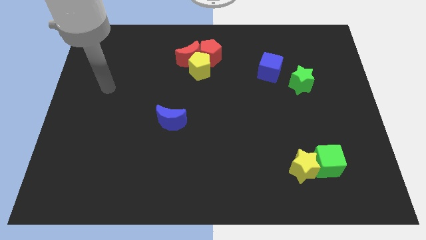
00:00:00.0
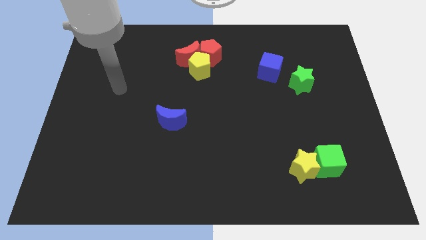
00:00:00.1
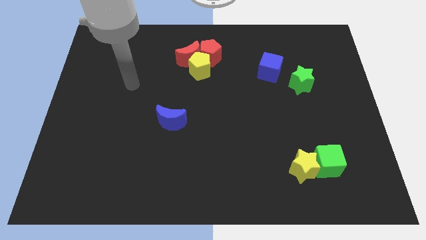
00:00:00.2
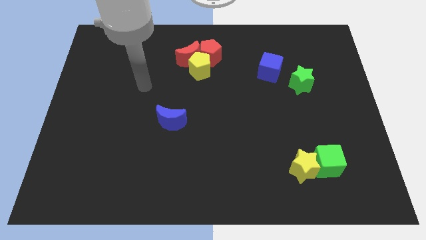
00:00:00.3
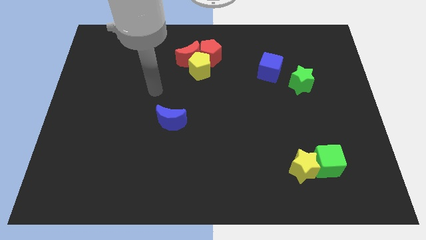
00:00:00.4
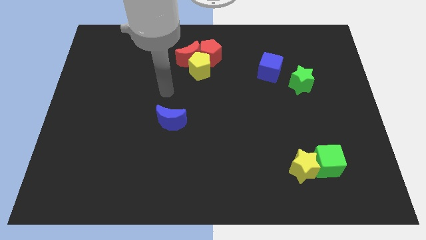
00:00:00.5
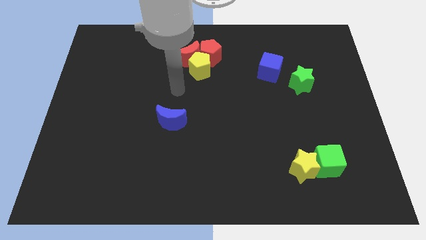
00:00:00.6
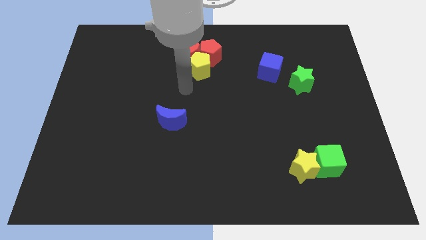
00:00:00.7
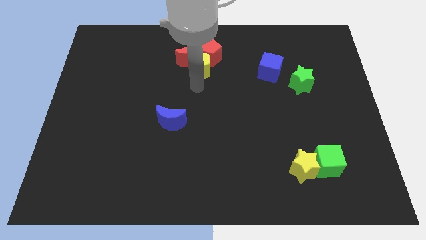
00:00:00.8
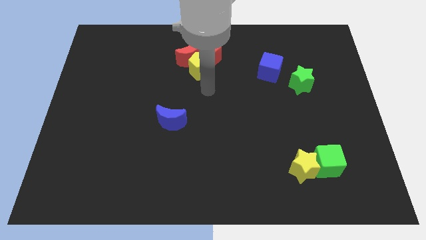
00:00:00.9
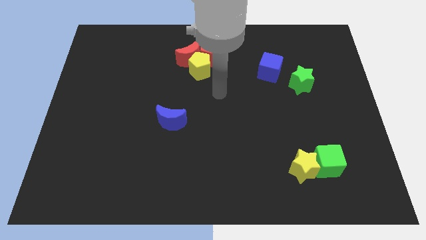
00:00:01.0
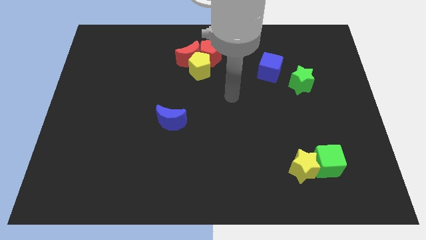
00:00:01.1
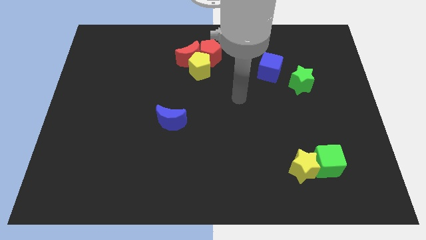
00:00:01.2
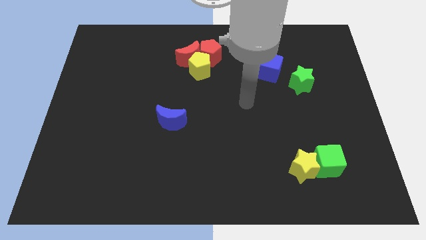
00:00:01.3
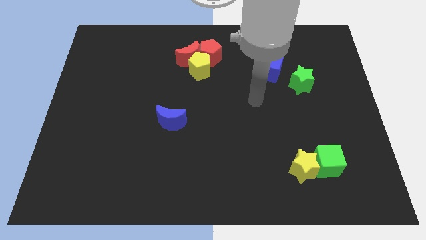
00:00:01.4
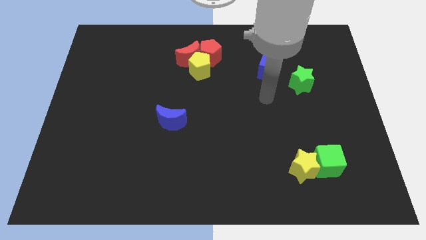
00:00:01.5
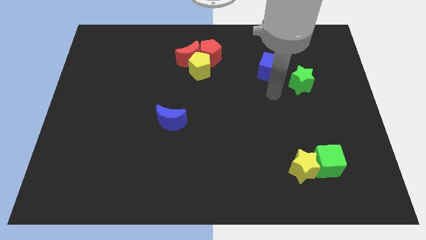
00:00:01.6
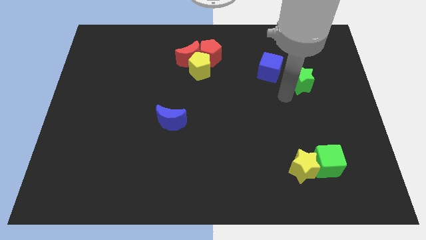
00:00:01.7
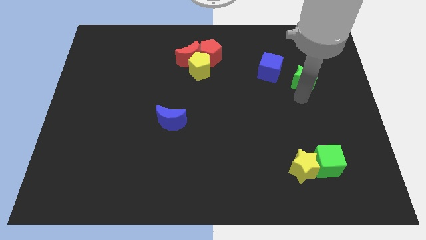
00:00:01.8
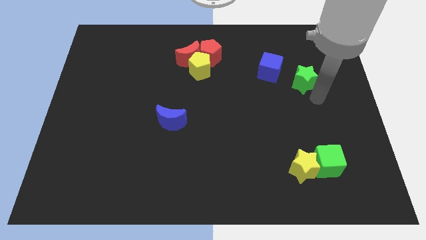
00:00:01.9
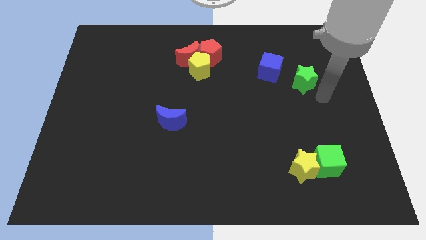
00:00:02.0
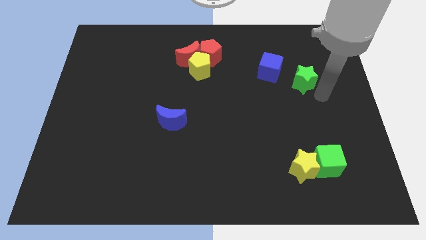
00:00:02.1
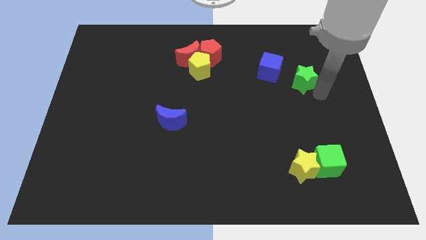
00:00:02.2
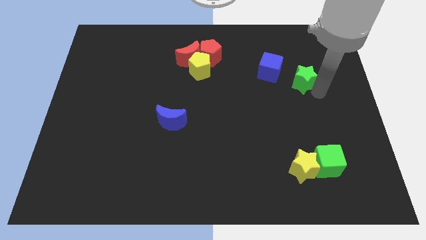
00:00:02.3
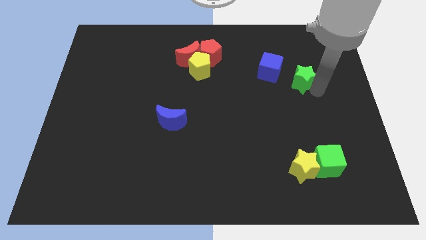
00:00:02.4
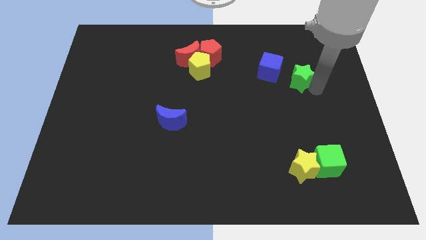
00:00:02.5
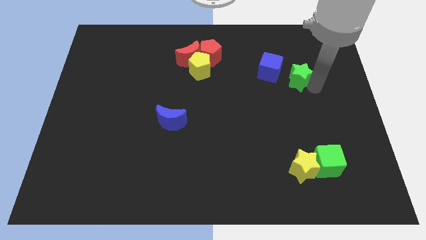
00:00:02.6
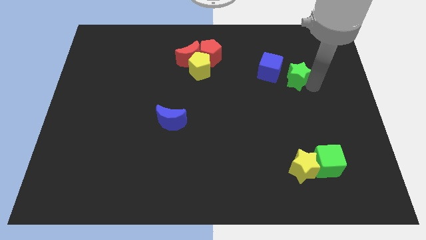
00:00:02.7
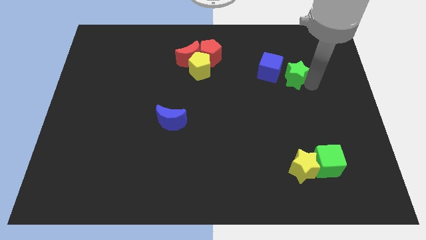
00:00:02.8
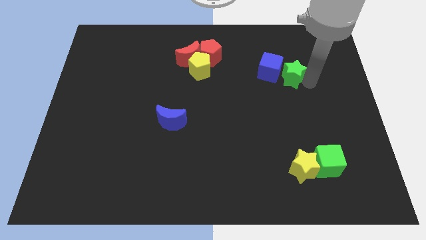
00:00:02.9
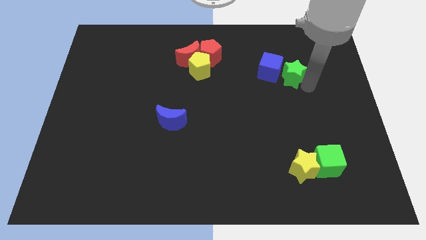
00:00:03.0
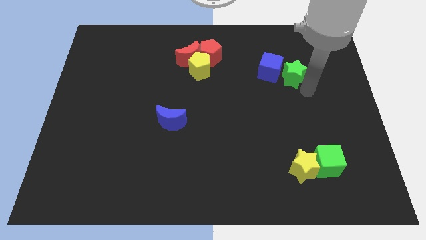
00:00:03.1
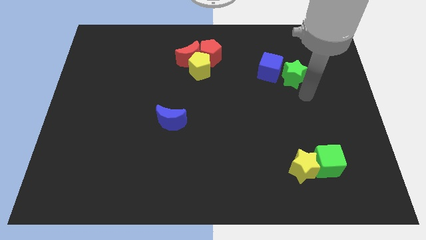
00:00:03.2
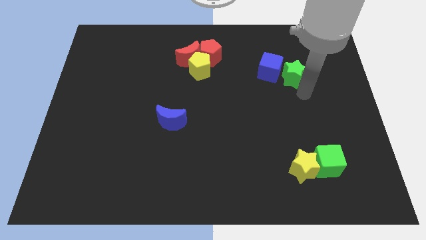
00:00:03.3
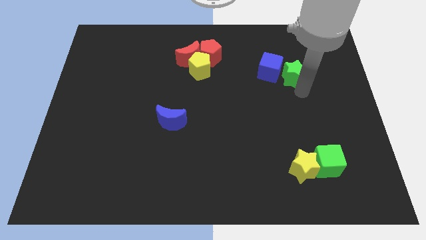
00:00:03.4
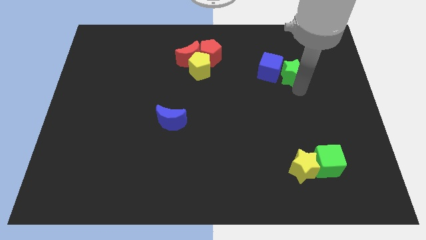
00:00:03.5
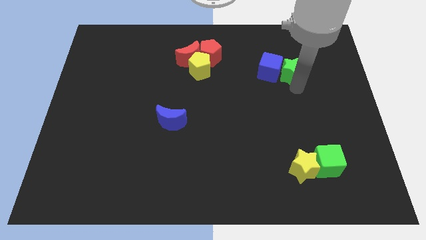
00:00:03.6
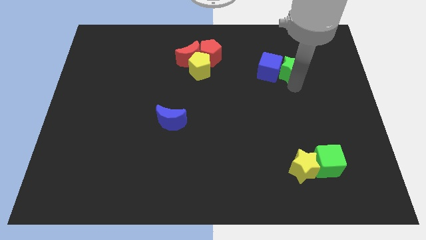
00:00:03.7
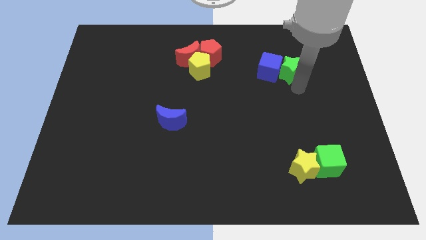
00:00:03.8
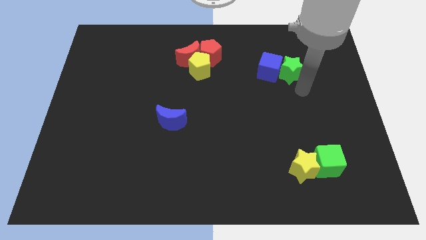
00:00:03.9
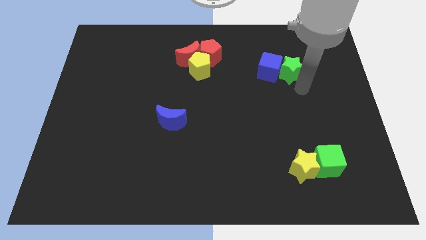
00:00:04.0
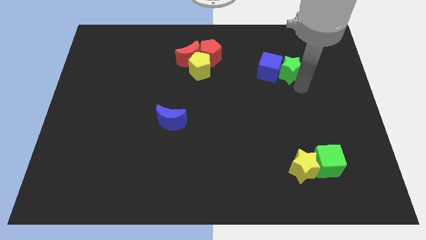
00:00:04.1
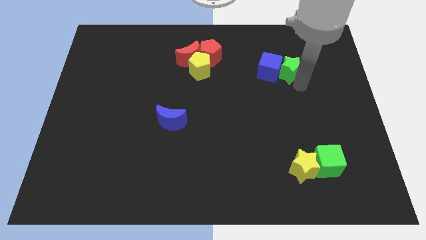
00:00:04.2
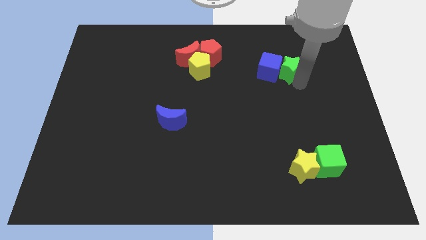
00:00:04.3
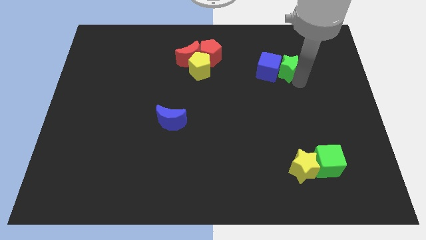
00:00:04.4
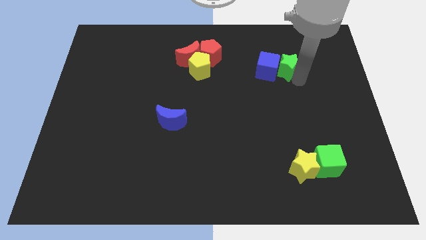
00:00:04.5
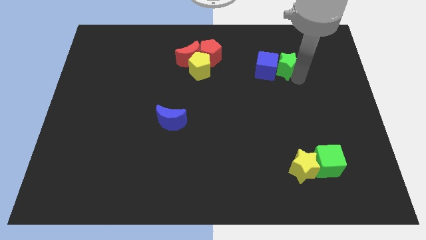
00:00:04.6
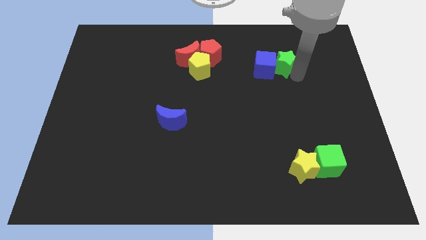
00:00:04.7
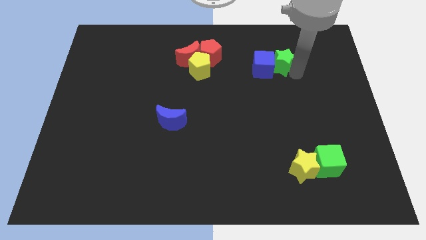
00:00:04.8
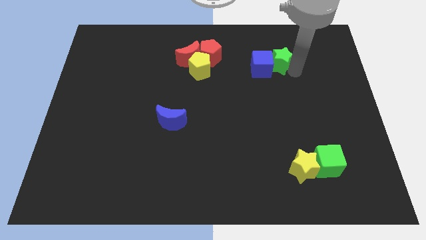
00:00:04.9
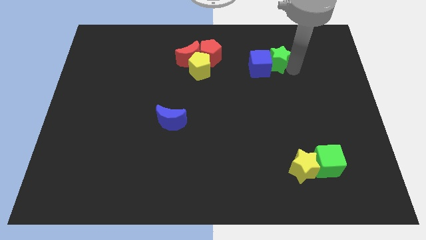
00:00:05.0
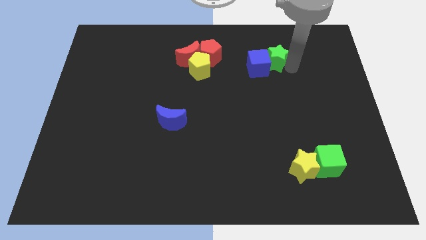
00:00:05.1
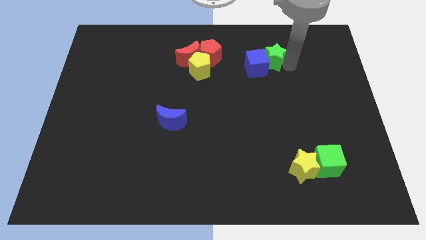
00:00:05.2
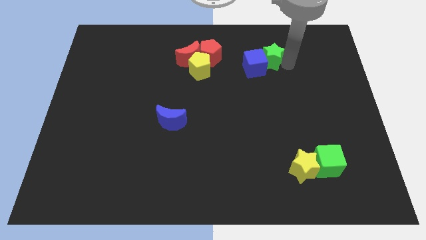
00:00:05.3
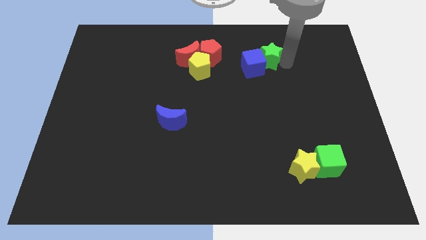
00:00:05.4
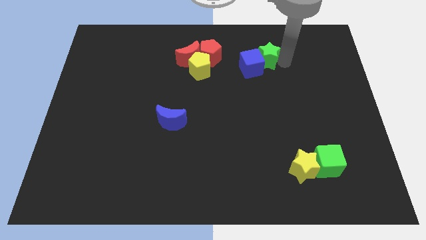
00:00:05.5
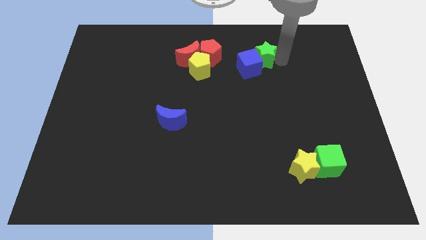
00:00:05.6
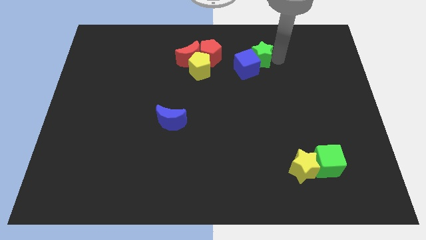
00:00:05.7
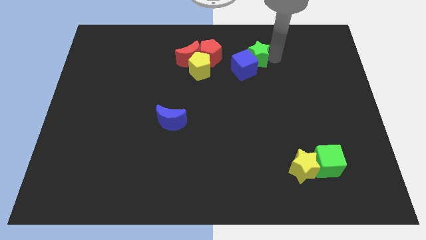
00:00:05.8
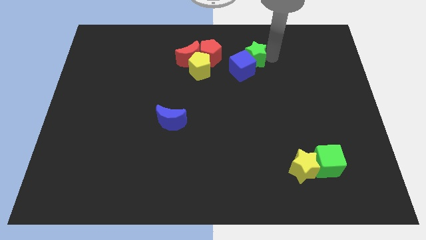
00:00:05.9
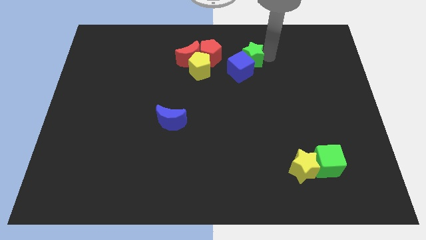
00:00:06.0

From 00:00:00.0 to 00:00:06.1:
move the green star just right of the red moon

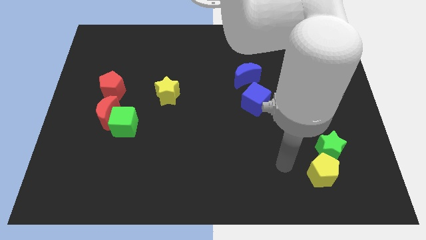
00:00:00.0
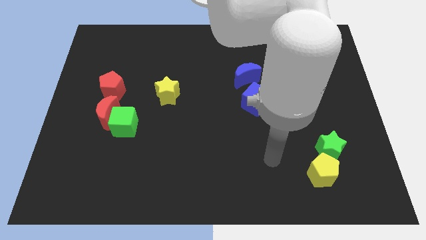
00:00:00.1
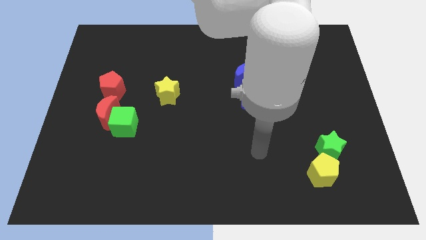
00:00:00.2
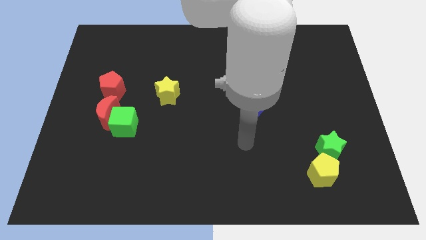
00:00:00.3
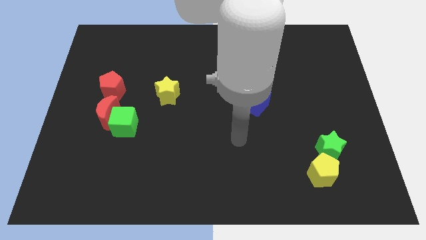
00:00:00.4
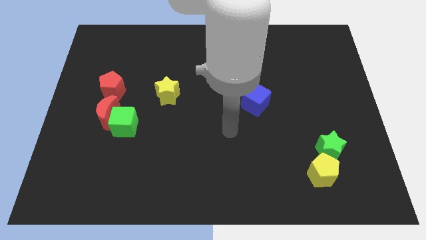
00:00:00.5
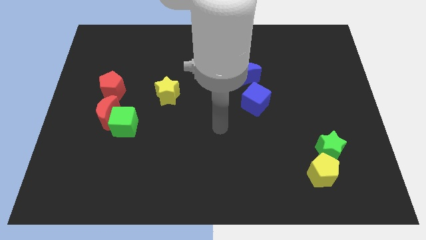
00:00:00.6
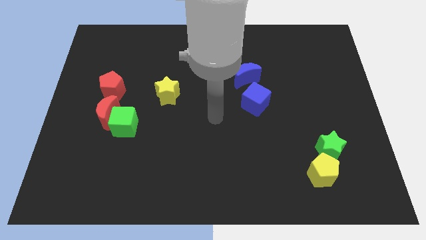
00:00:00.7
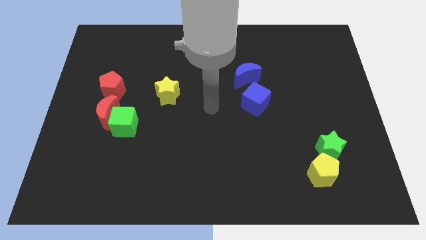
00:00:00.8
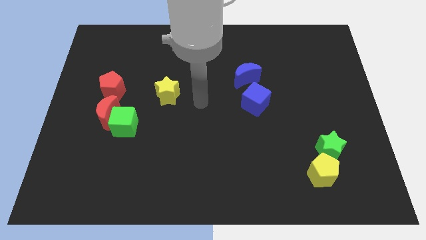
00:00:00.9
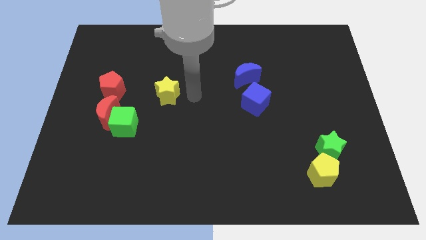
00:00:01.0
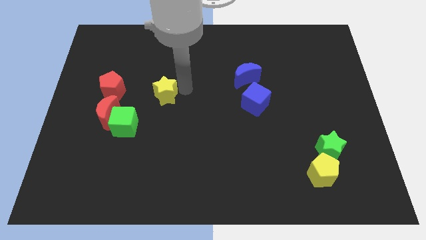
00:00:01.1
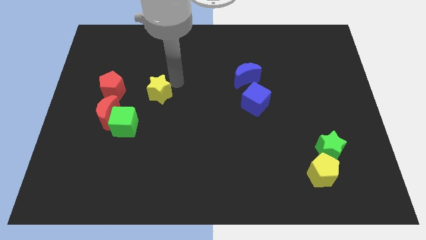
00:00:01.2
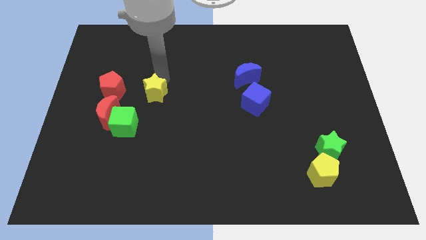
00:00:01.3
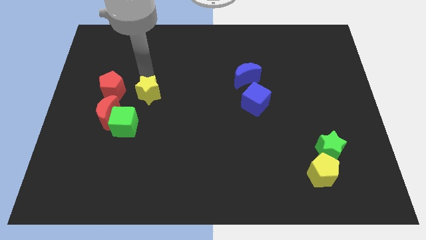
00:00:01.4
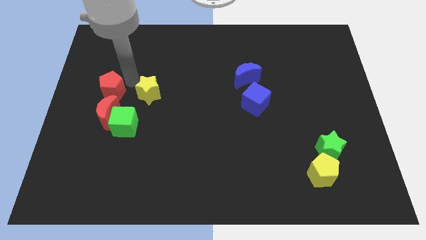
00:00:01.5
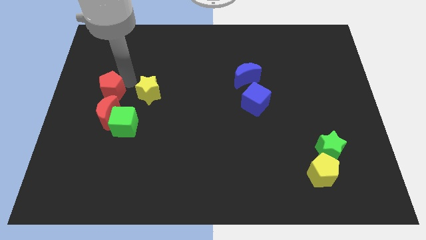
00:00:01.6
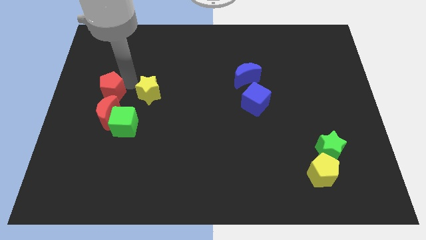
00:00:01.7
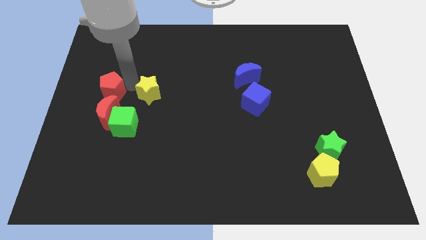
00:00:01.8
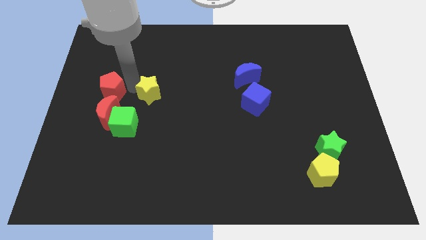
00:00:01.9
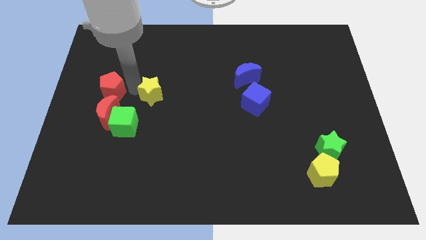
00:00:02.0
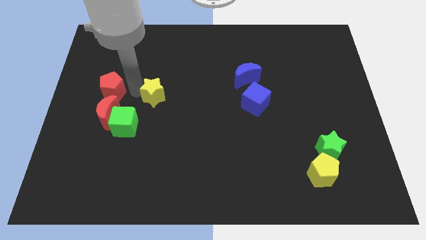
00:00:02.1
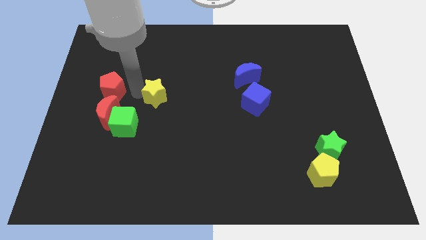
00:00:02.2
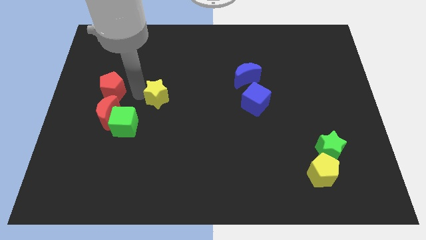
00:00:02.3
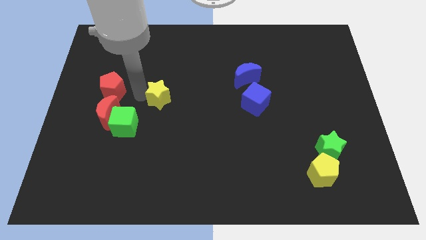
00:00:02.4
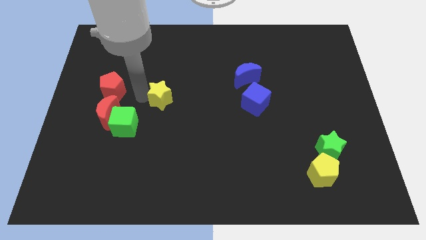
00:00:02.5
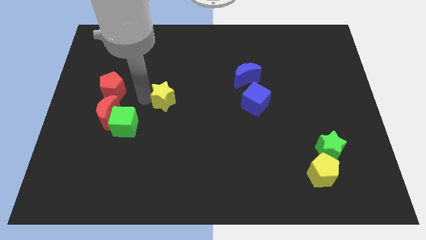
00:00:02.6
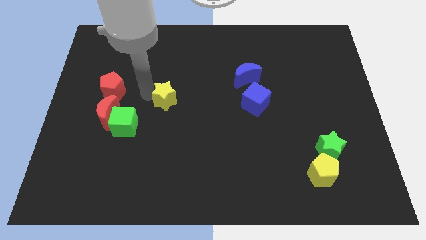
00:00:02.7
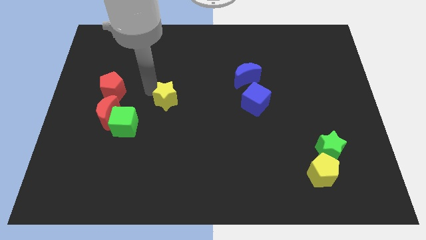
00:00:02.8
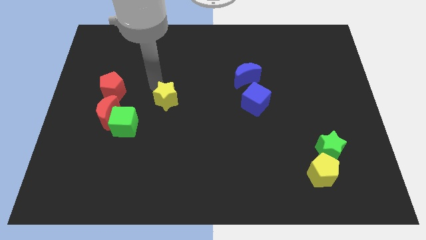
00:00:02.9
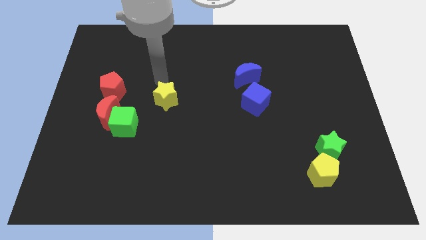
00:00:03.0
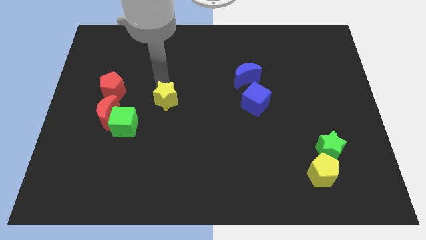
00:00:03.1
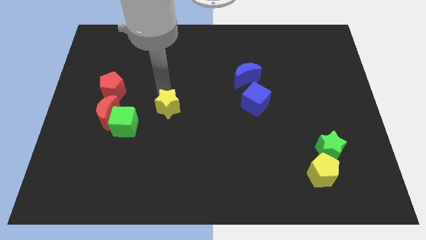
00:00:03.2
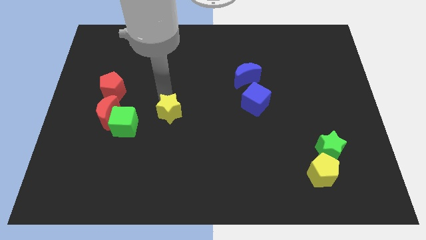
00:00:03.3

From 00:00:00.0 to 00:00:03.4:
move the yellow star to the right side of the green cube
